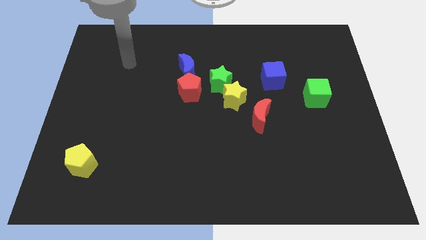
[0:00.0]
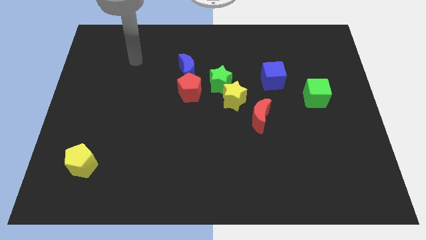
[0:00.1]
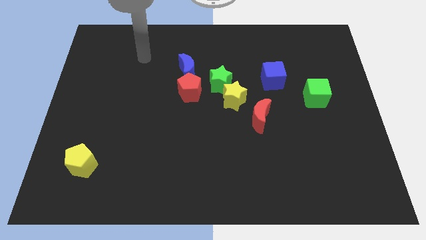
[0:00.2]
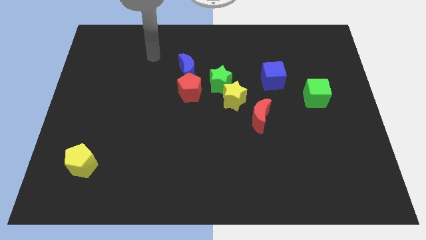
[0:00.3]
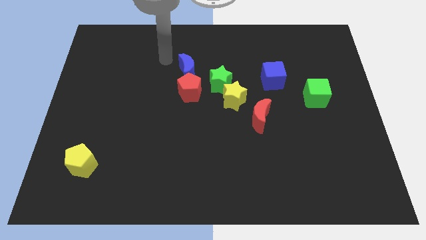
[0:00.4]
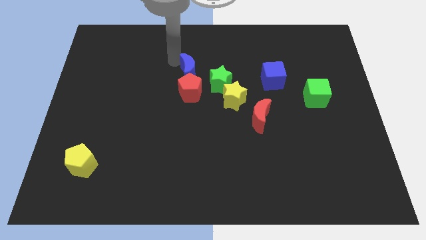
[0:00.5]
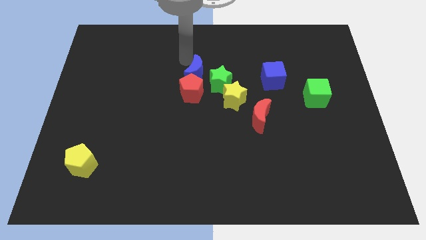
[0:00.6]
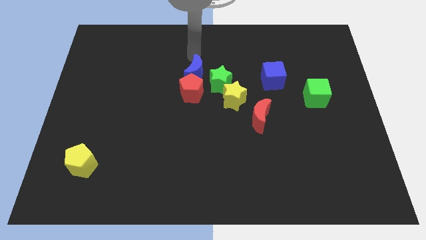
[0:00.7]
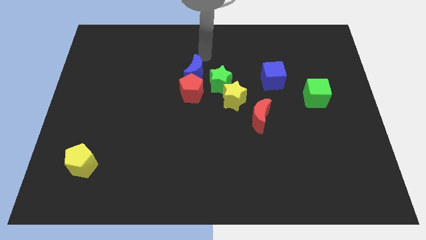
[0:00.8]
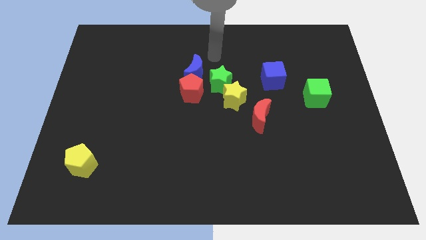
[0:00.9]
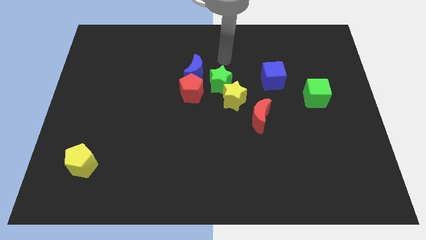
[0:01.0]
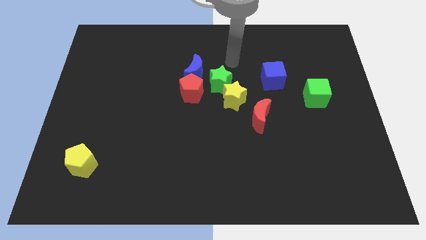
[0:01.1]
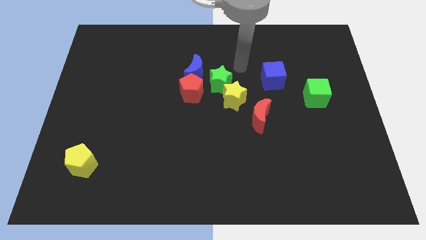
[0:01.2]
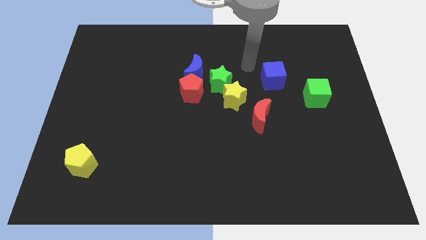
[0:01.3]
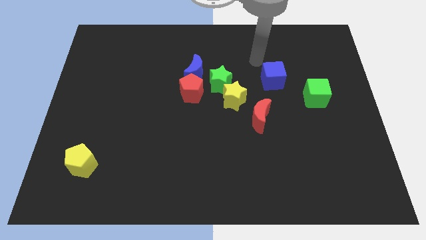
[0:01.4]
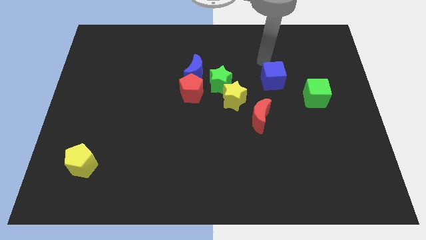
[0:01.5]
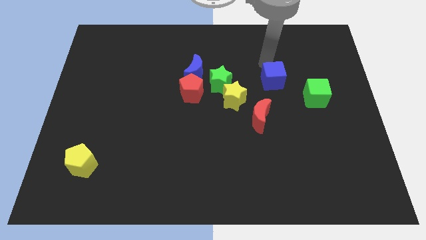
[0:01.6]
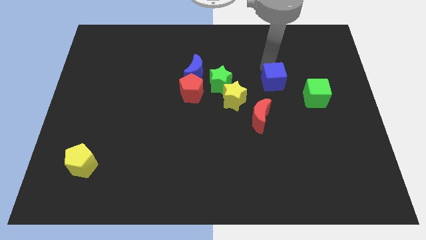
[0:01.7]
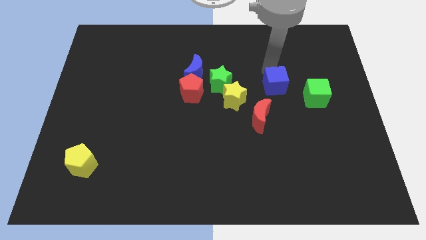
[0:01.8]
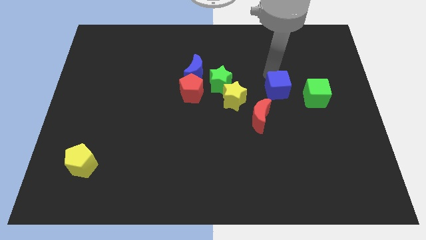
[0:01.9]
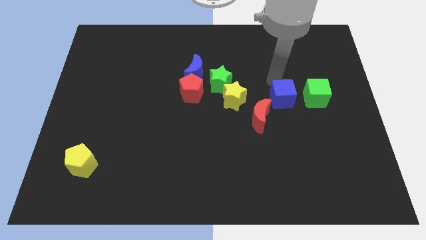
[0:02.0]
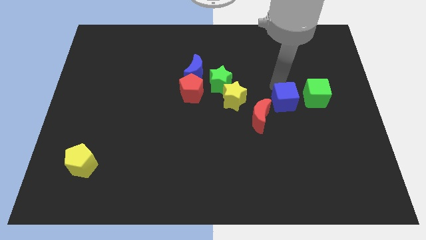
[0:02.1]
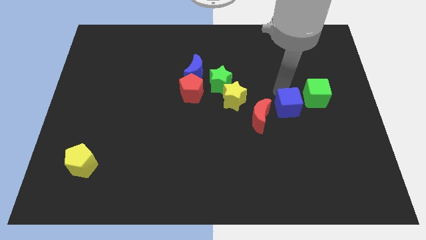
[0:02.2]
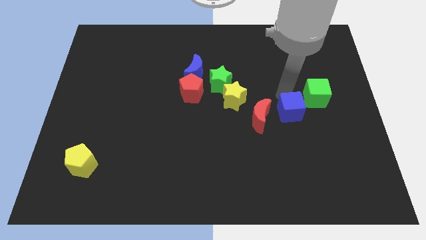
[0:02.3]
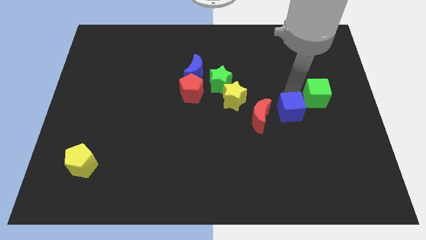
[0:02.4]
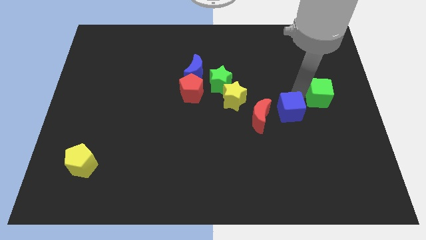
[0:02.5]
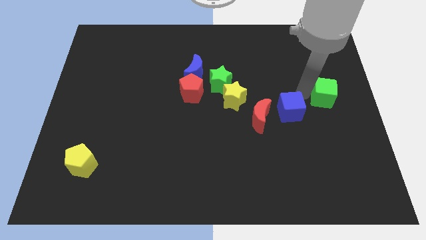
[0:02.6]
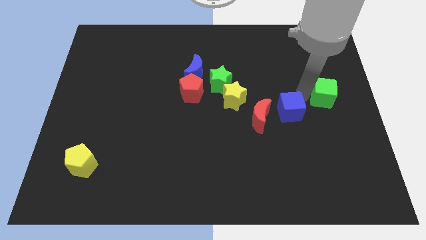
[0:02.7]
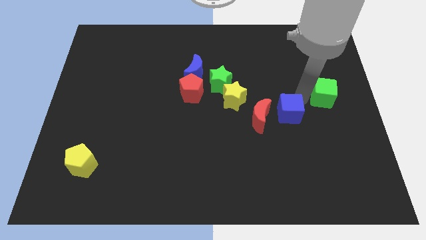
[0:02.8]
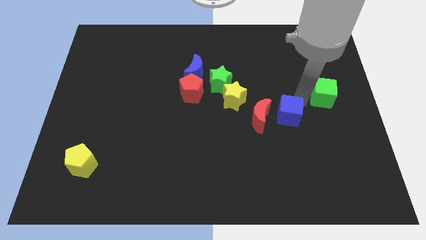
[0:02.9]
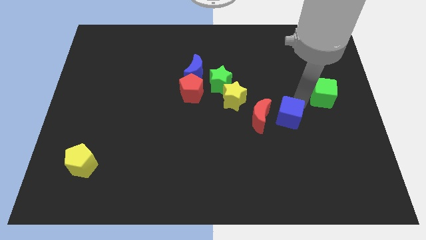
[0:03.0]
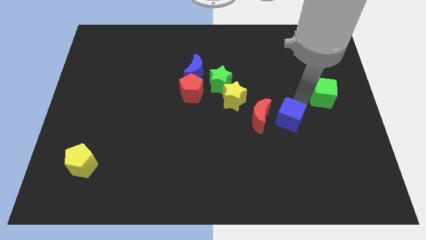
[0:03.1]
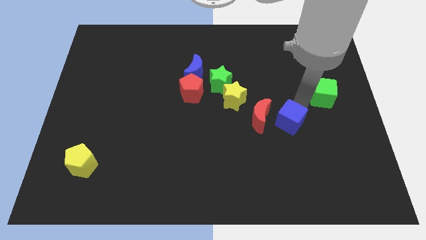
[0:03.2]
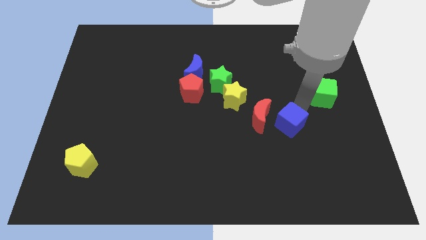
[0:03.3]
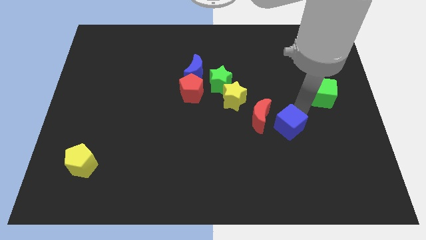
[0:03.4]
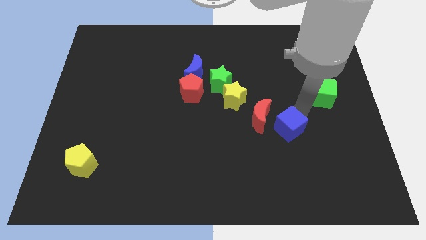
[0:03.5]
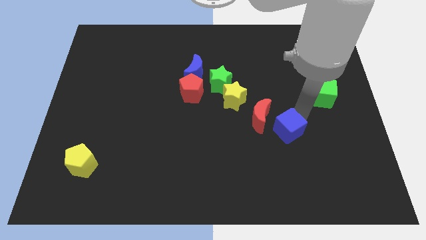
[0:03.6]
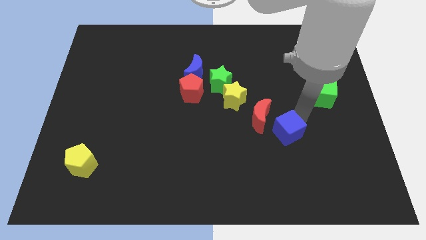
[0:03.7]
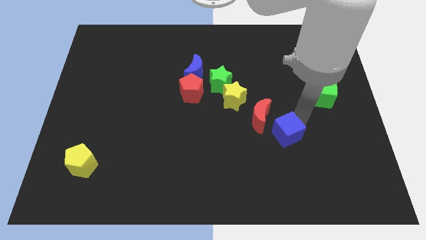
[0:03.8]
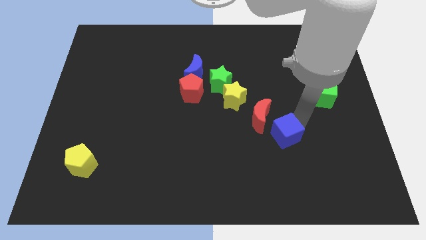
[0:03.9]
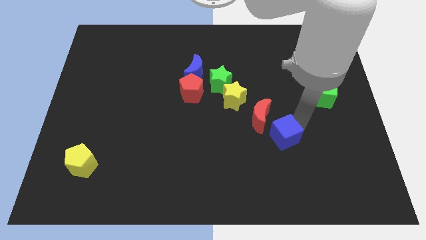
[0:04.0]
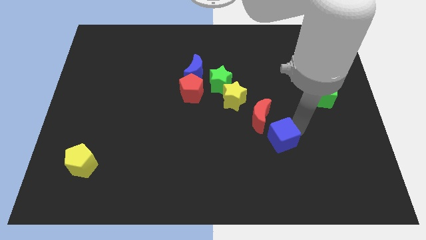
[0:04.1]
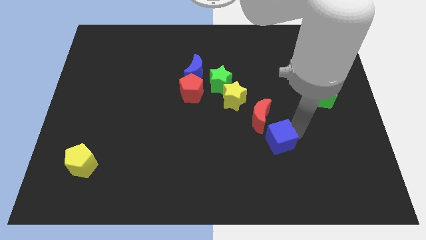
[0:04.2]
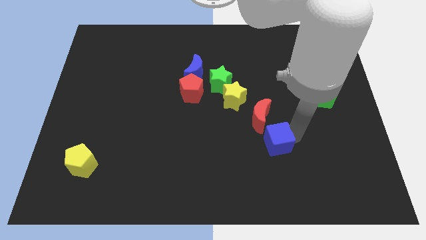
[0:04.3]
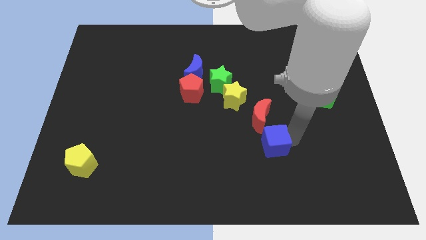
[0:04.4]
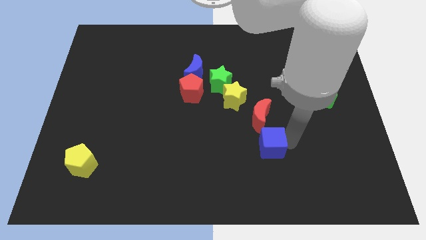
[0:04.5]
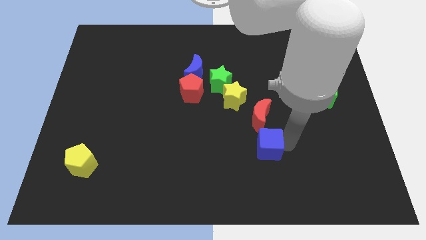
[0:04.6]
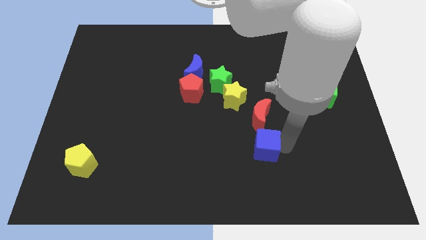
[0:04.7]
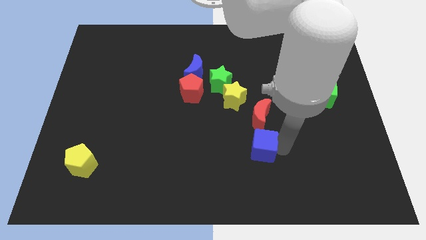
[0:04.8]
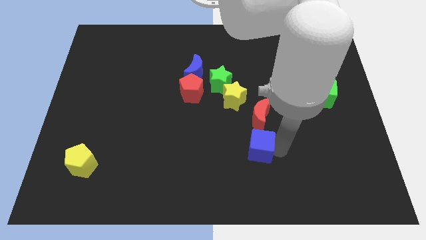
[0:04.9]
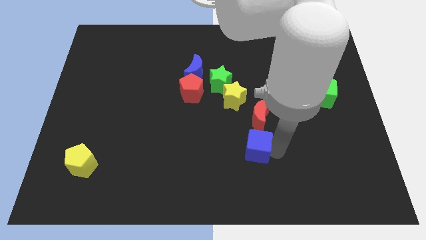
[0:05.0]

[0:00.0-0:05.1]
slide the blue cube diagonally down and to the left of the red moon
